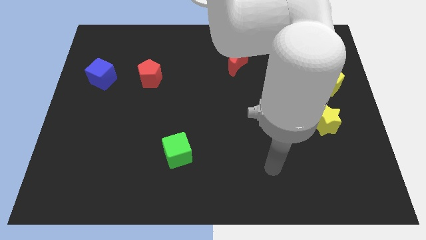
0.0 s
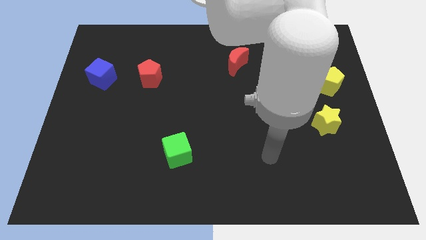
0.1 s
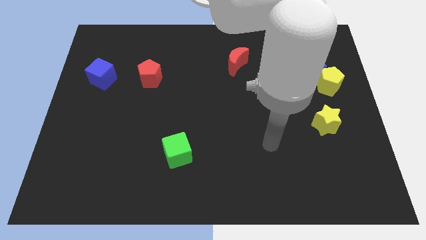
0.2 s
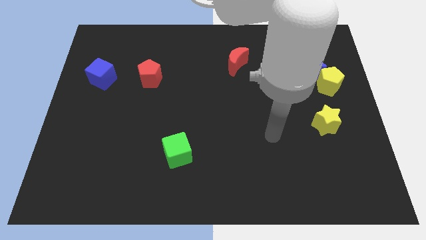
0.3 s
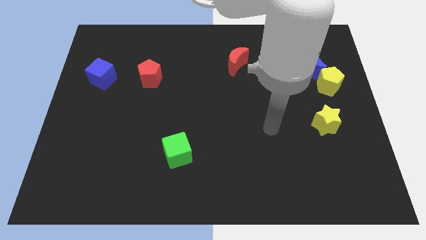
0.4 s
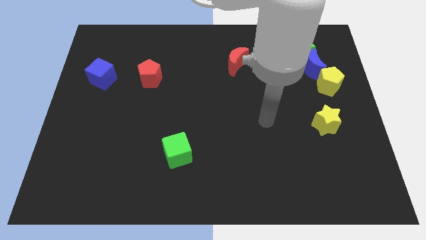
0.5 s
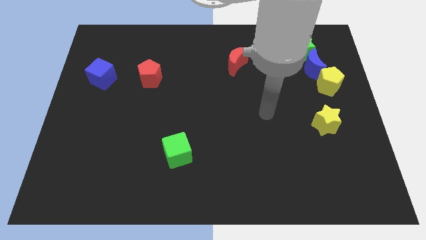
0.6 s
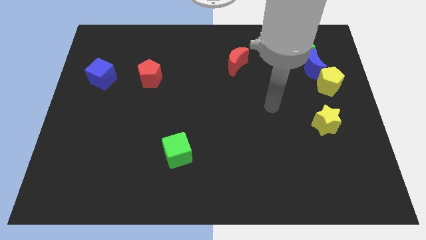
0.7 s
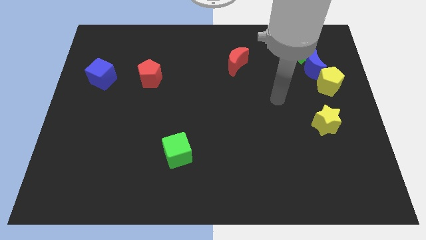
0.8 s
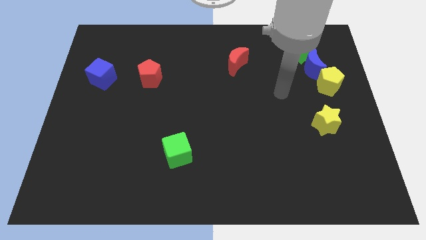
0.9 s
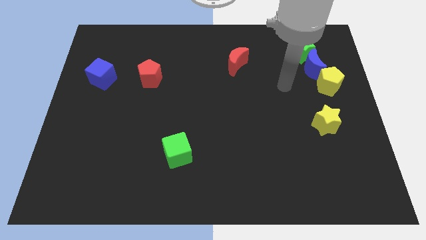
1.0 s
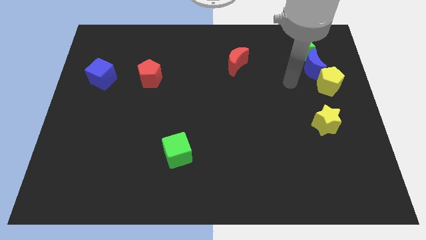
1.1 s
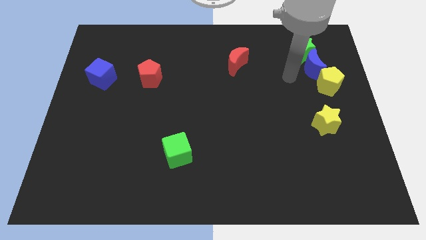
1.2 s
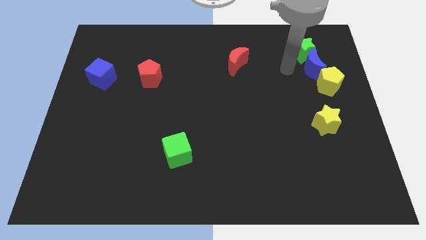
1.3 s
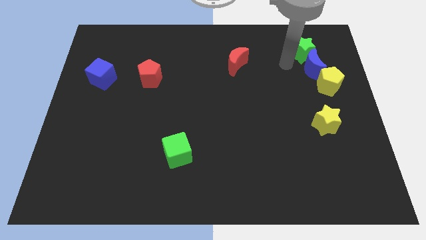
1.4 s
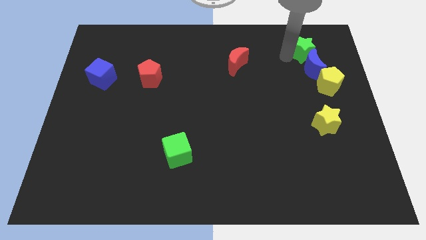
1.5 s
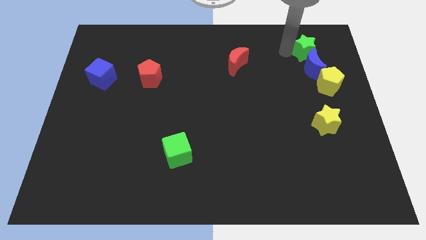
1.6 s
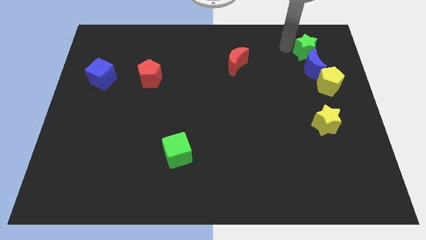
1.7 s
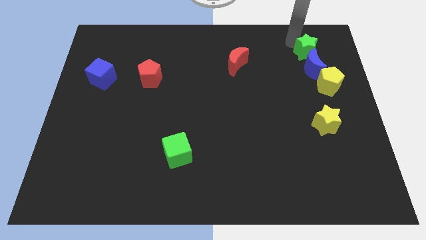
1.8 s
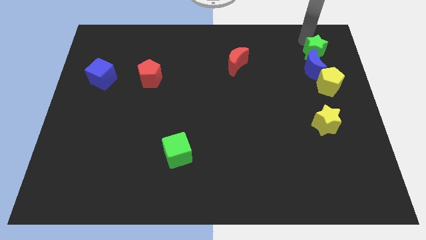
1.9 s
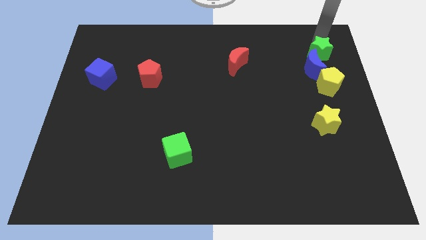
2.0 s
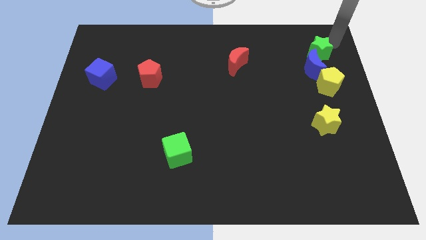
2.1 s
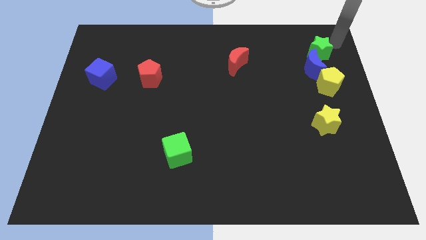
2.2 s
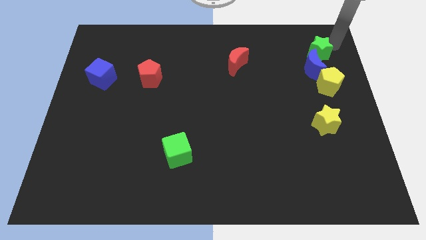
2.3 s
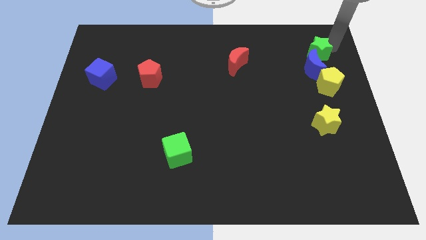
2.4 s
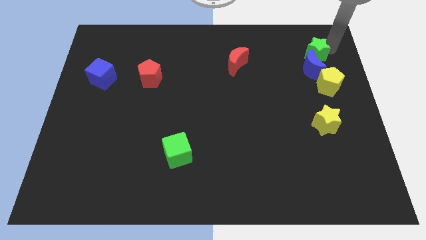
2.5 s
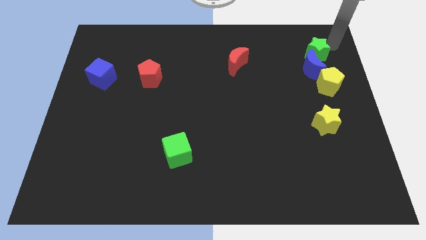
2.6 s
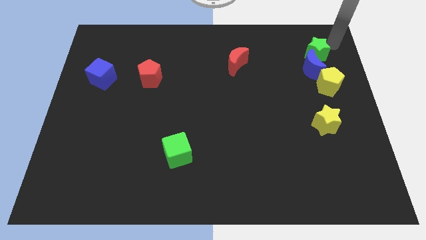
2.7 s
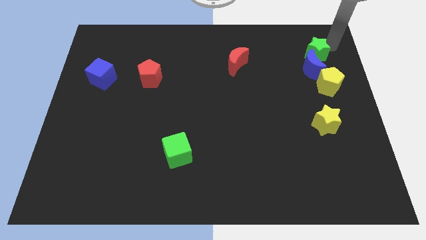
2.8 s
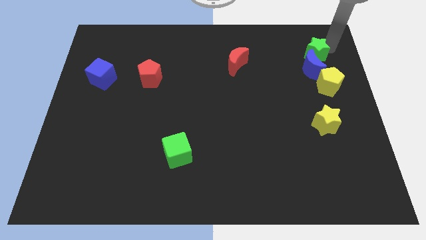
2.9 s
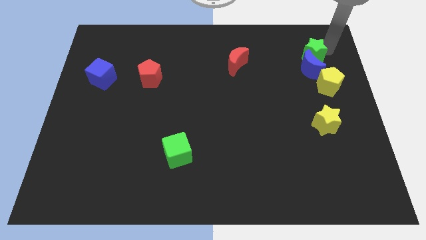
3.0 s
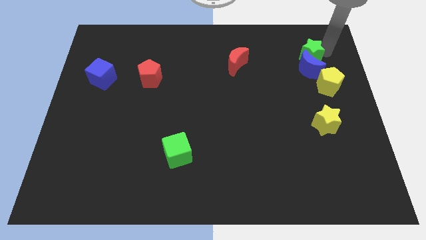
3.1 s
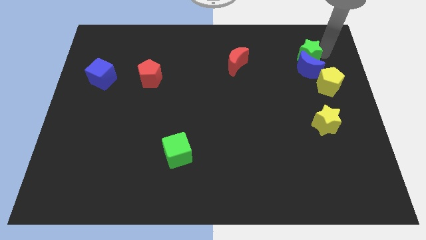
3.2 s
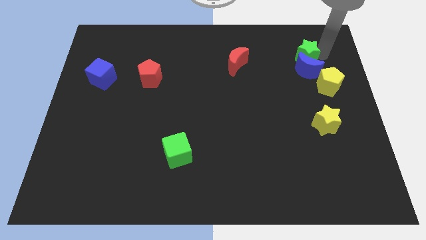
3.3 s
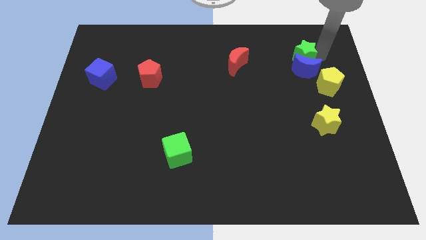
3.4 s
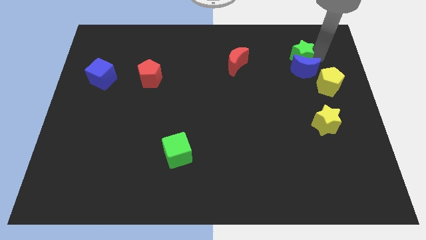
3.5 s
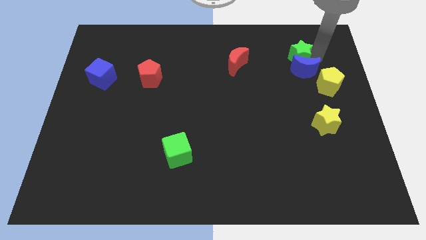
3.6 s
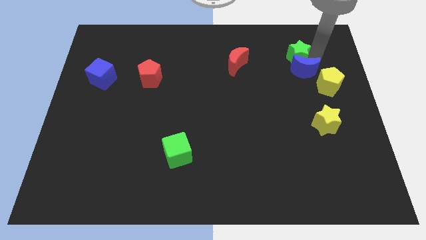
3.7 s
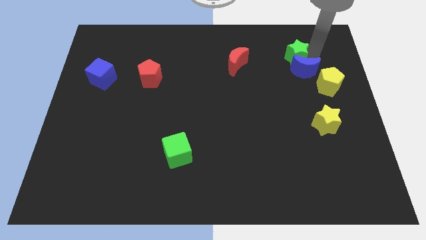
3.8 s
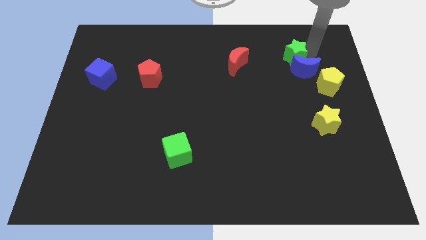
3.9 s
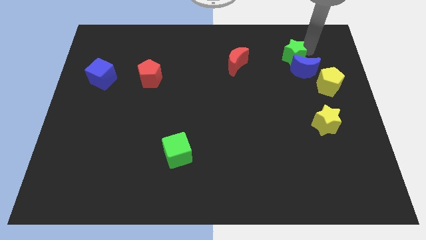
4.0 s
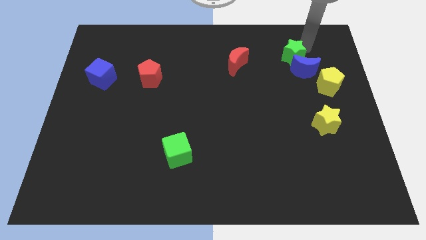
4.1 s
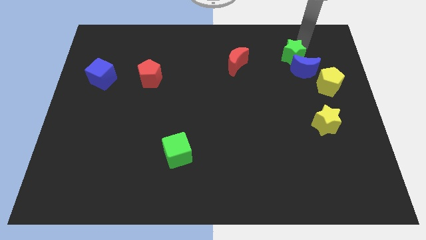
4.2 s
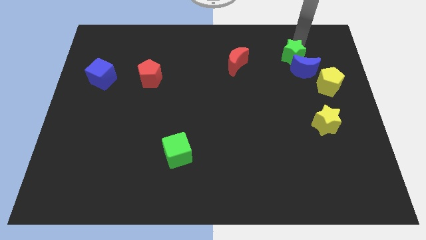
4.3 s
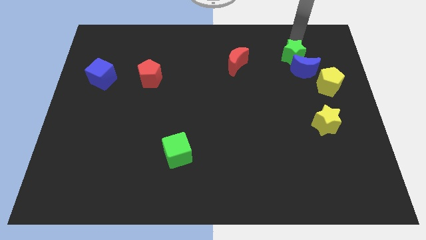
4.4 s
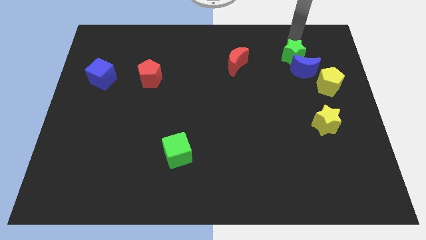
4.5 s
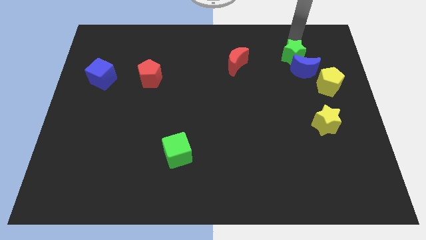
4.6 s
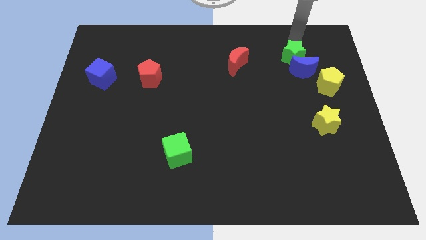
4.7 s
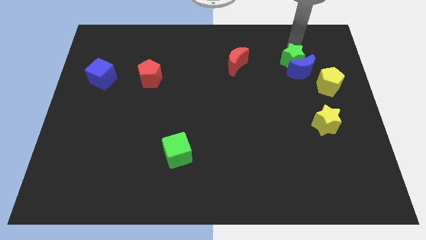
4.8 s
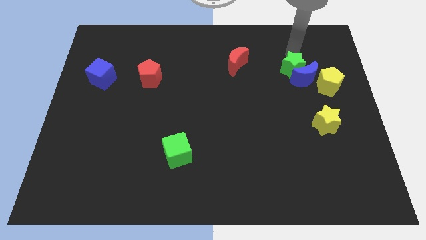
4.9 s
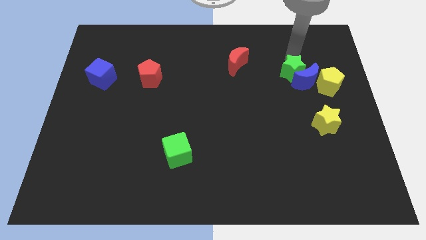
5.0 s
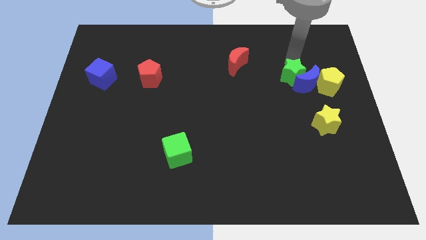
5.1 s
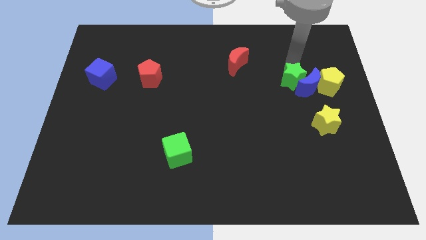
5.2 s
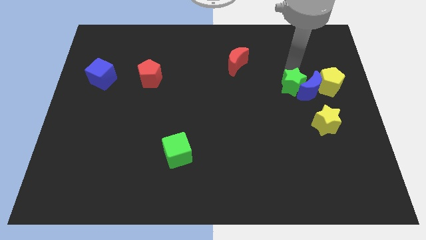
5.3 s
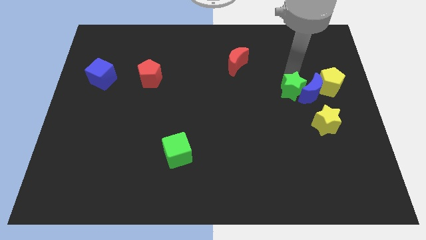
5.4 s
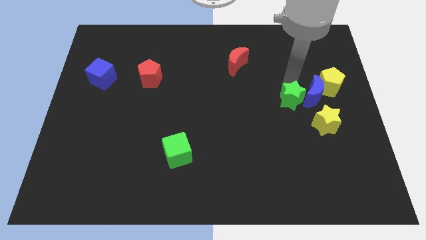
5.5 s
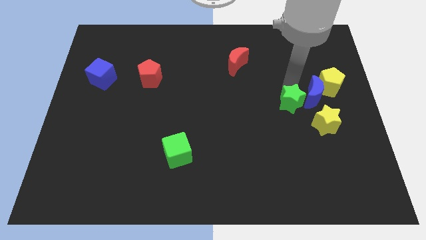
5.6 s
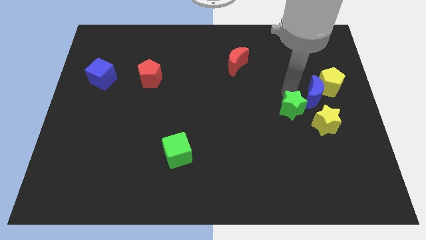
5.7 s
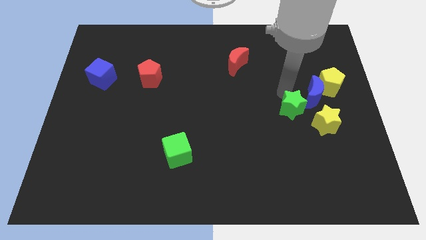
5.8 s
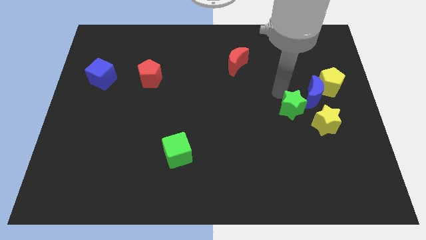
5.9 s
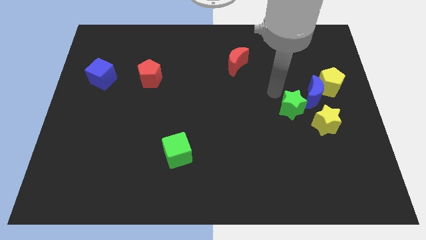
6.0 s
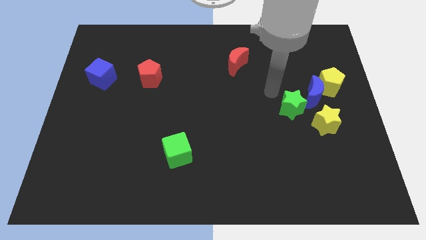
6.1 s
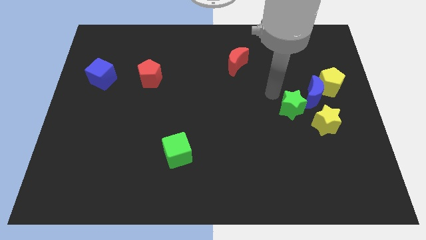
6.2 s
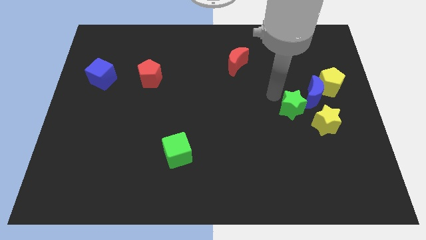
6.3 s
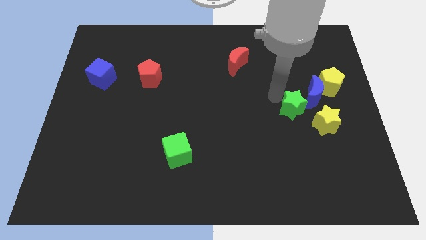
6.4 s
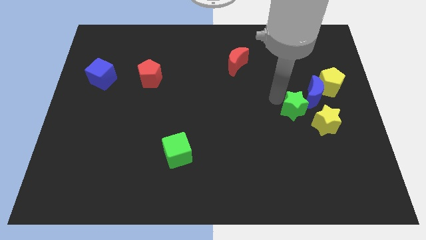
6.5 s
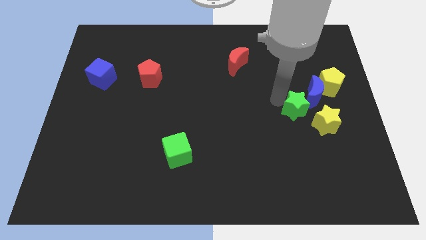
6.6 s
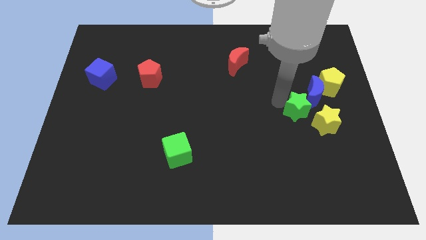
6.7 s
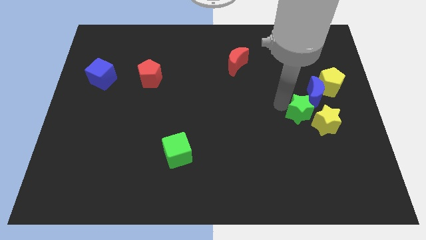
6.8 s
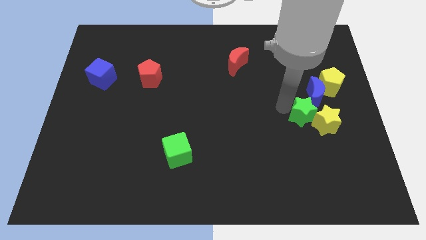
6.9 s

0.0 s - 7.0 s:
slide the green star downwards

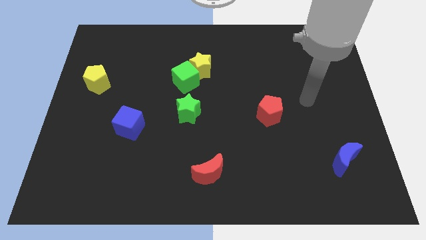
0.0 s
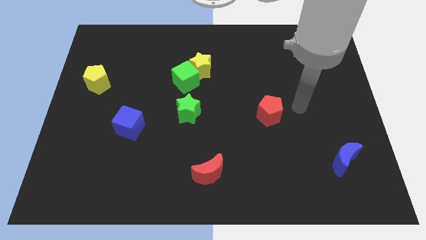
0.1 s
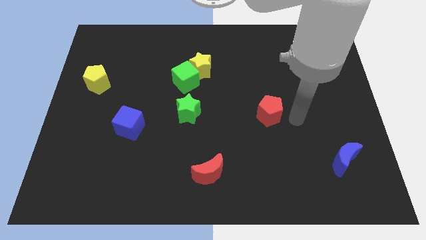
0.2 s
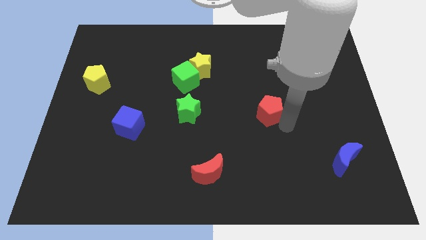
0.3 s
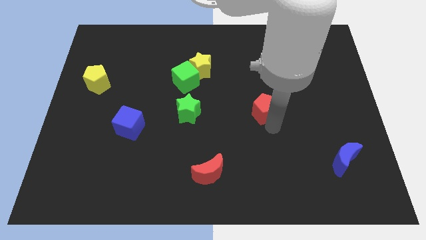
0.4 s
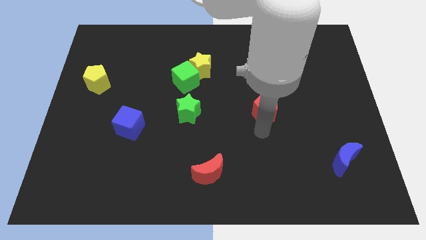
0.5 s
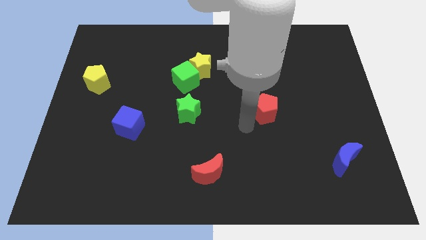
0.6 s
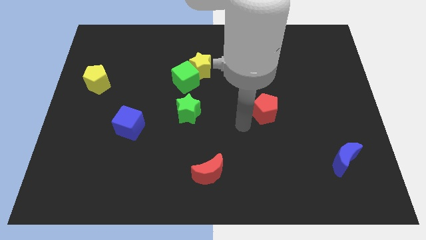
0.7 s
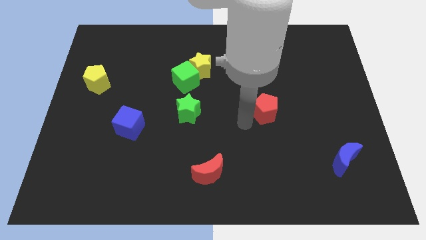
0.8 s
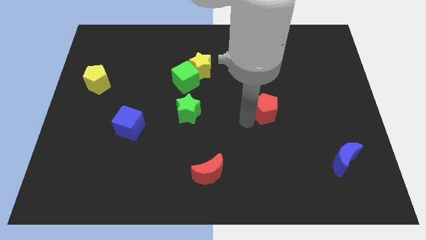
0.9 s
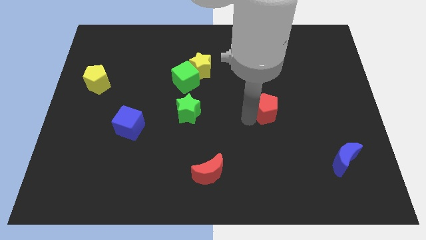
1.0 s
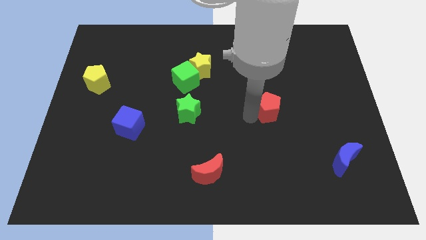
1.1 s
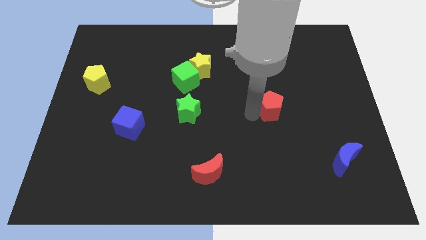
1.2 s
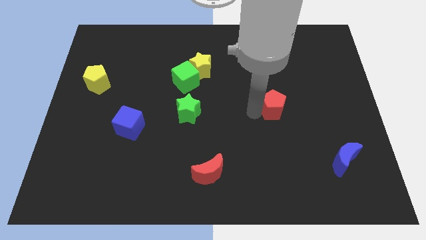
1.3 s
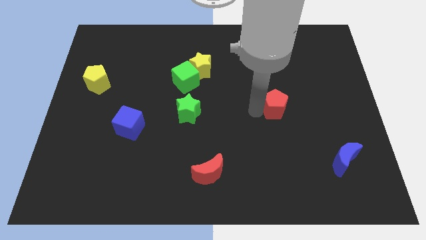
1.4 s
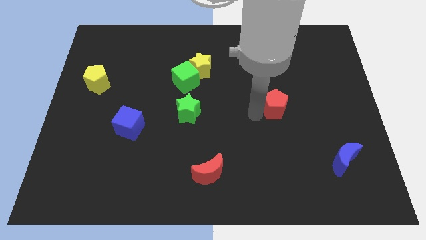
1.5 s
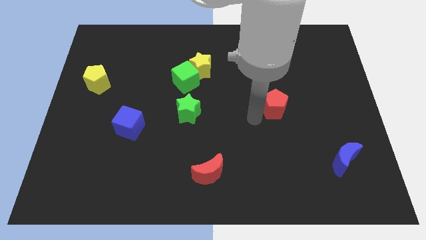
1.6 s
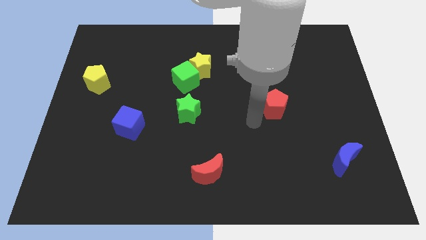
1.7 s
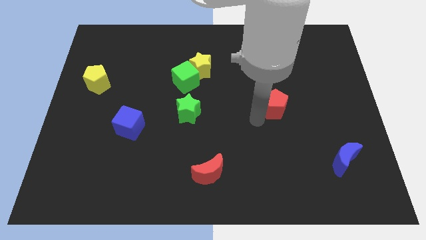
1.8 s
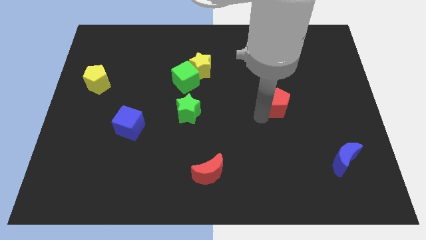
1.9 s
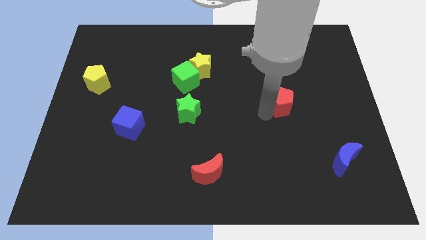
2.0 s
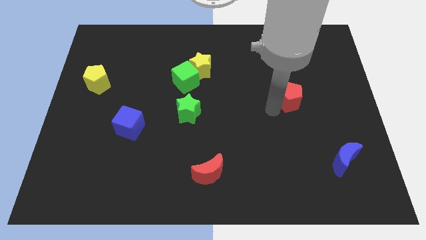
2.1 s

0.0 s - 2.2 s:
move the red pentagon upwards and right diagonally slightly
